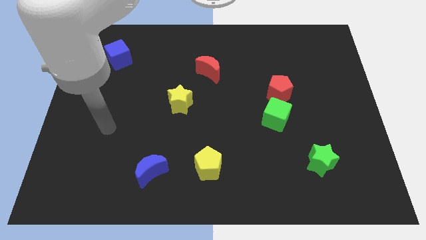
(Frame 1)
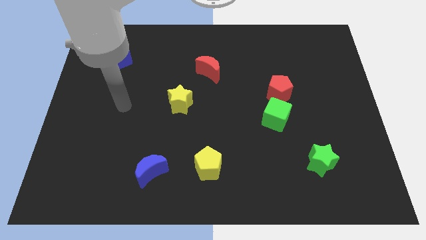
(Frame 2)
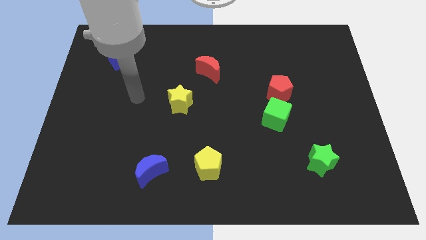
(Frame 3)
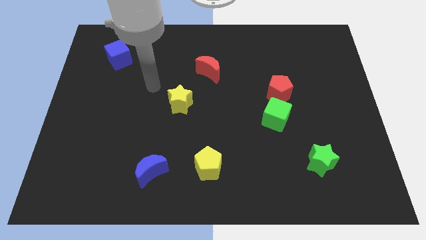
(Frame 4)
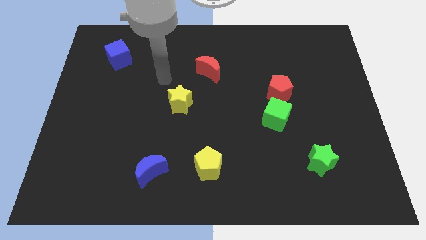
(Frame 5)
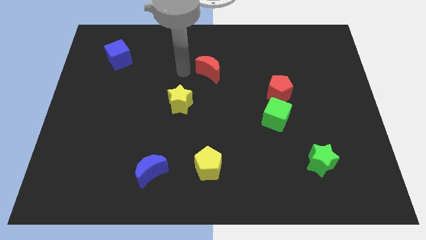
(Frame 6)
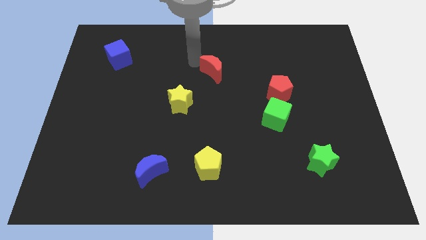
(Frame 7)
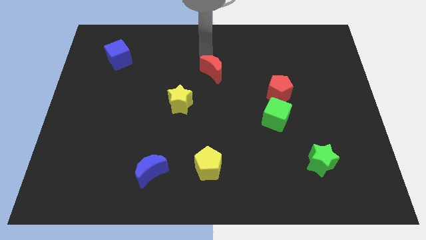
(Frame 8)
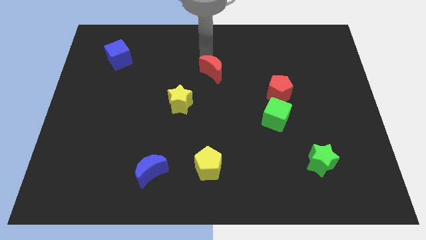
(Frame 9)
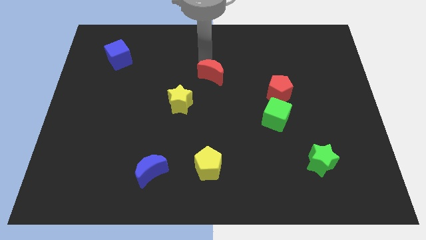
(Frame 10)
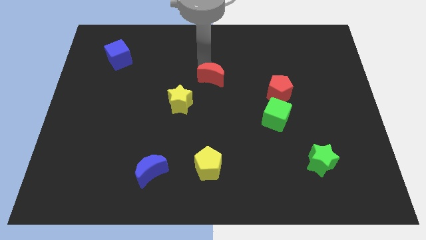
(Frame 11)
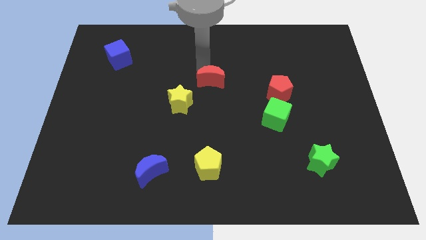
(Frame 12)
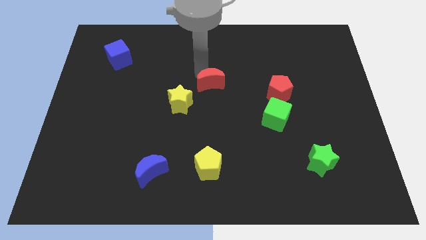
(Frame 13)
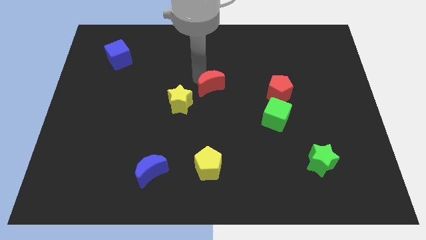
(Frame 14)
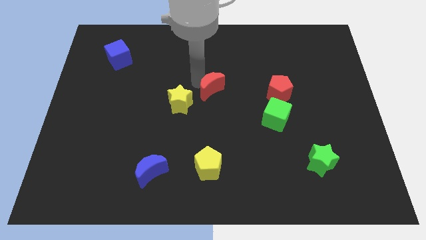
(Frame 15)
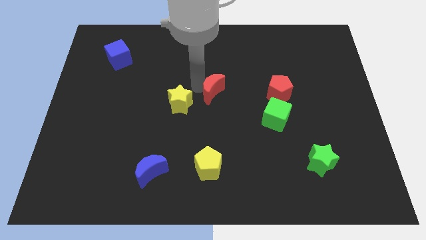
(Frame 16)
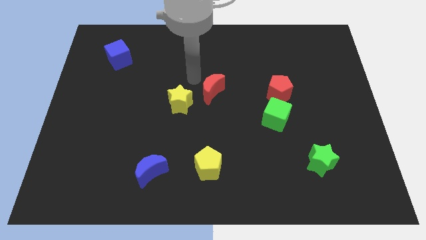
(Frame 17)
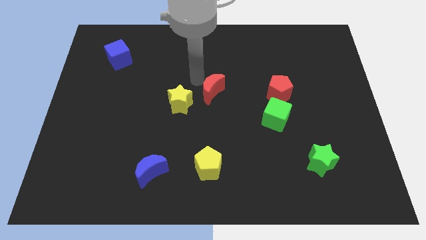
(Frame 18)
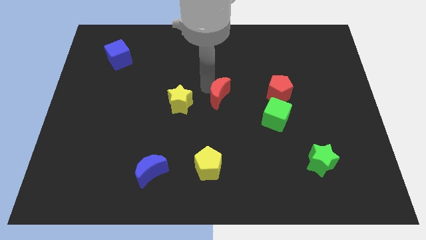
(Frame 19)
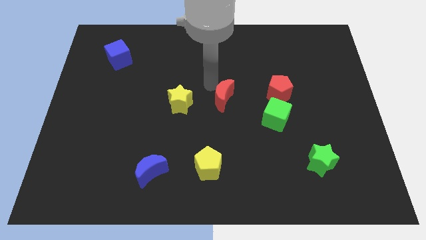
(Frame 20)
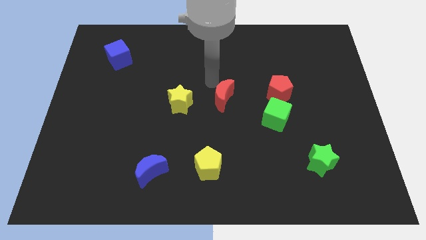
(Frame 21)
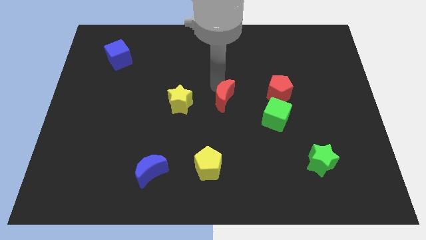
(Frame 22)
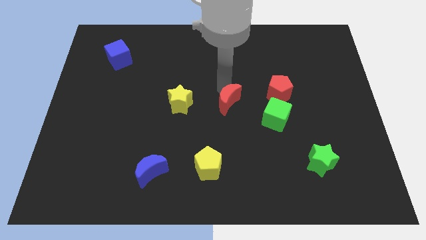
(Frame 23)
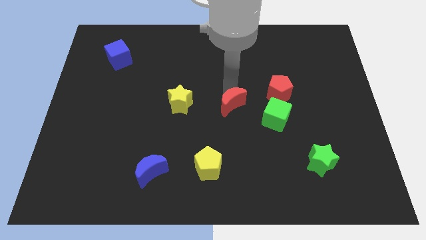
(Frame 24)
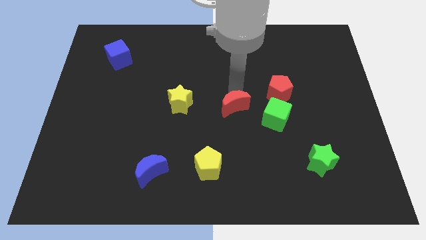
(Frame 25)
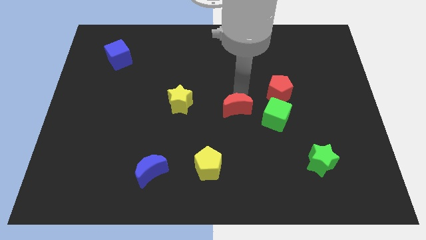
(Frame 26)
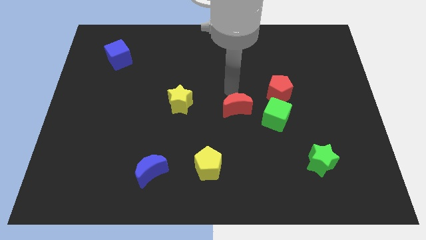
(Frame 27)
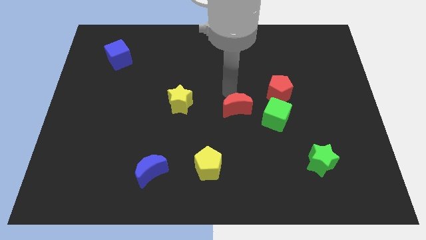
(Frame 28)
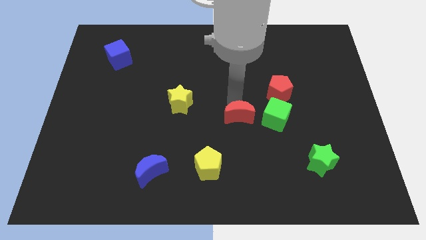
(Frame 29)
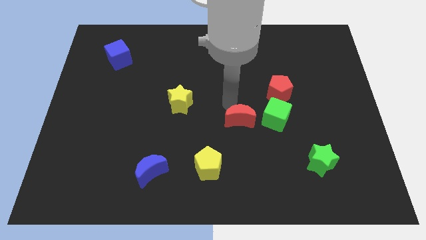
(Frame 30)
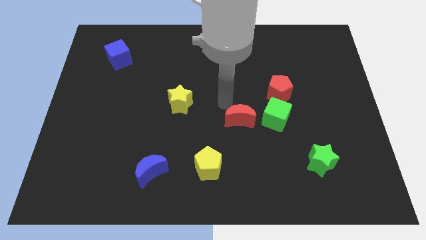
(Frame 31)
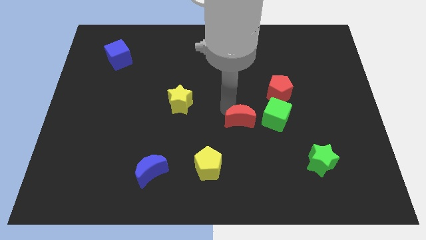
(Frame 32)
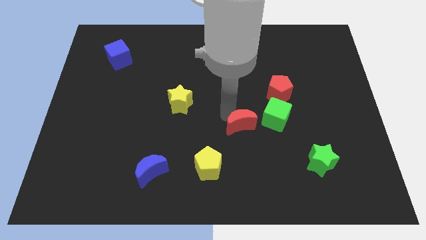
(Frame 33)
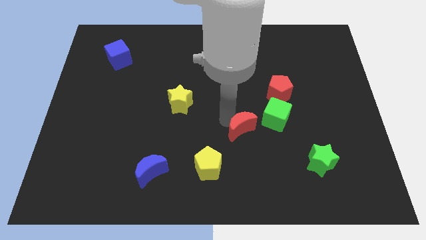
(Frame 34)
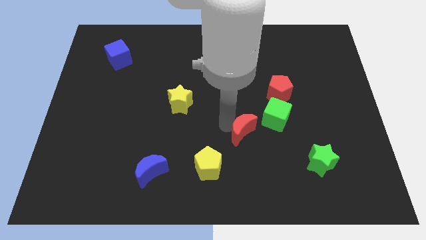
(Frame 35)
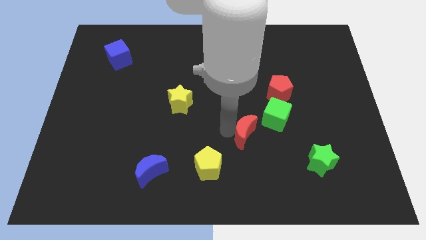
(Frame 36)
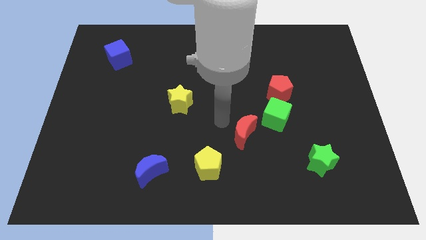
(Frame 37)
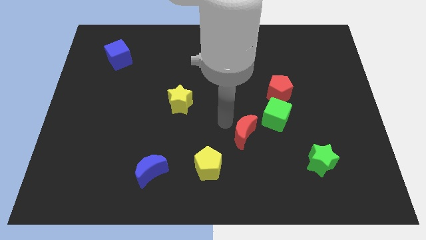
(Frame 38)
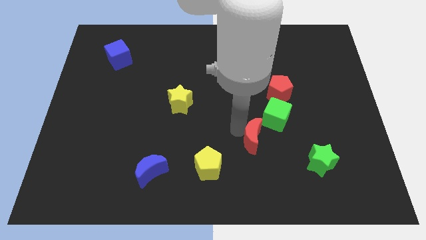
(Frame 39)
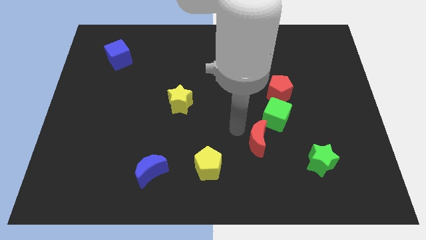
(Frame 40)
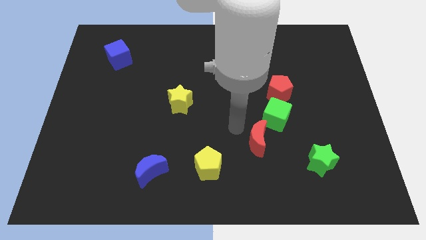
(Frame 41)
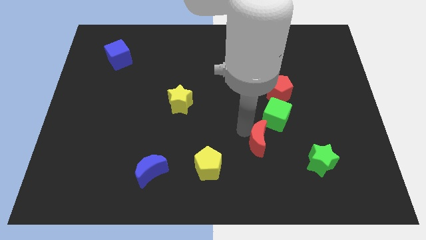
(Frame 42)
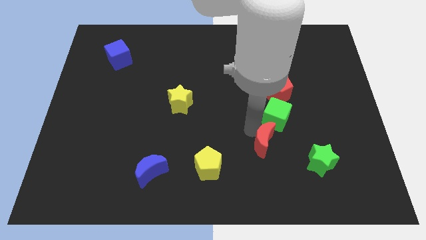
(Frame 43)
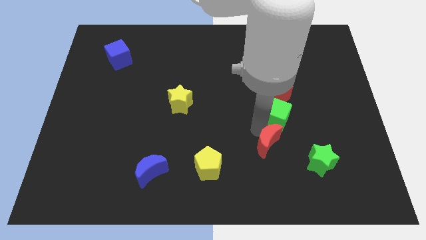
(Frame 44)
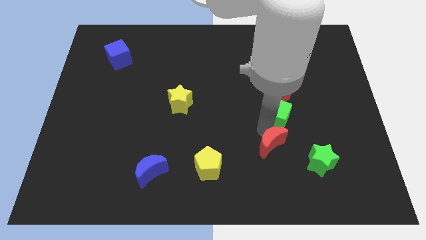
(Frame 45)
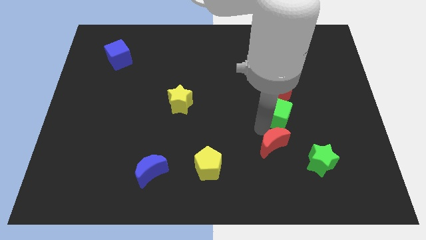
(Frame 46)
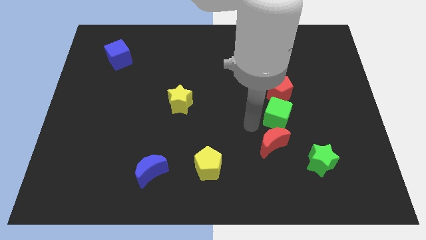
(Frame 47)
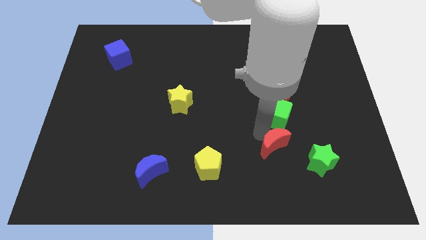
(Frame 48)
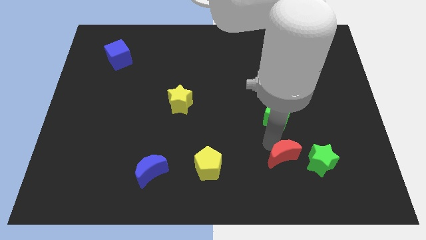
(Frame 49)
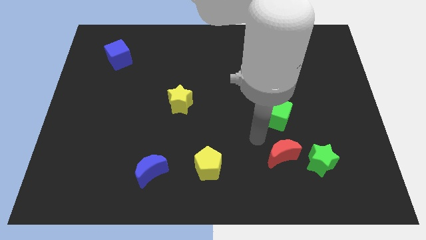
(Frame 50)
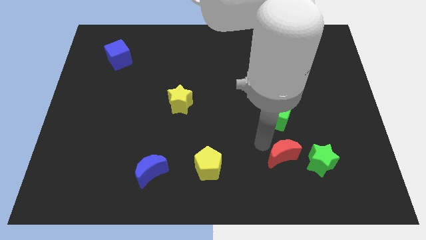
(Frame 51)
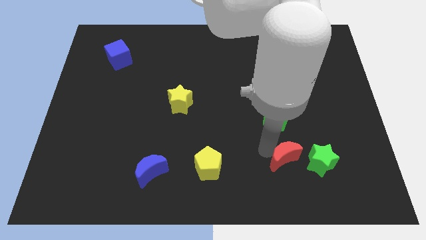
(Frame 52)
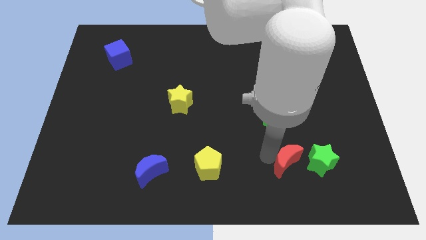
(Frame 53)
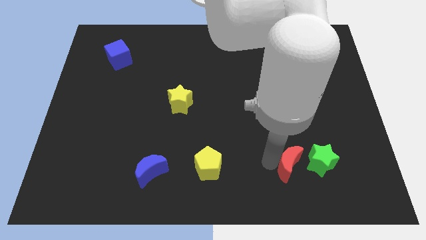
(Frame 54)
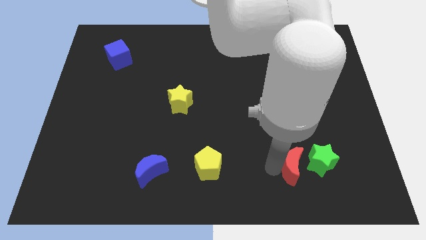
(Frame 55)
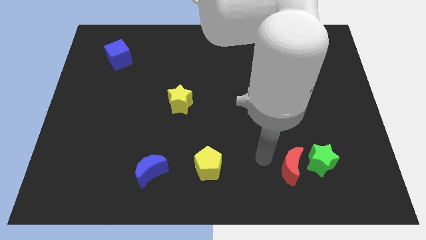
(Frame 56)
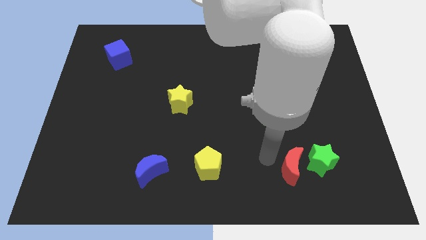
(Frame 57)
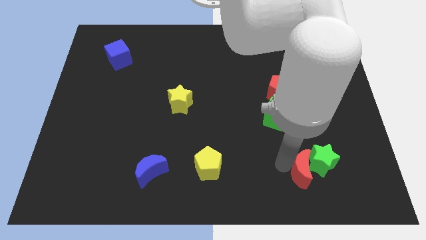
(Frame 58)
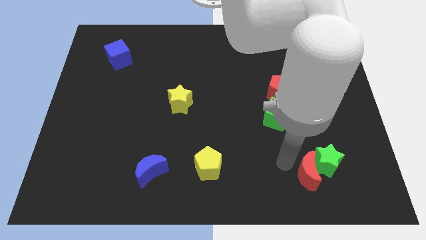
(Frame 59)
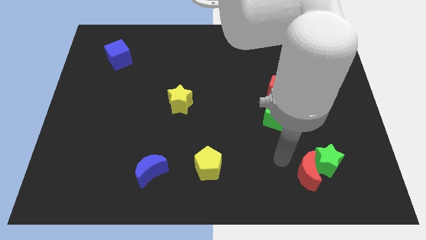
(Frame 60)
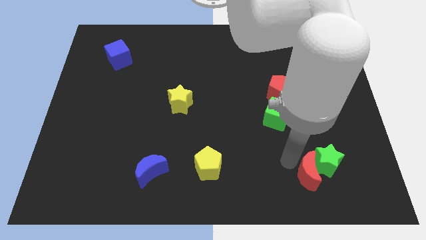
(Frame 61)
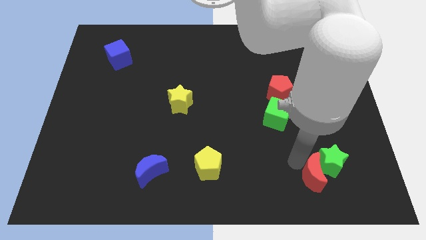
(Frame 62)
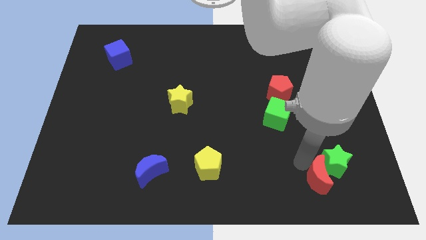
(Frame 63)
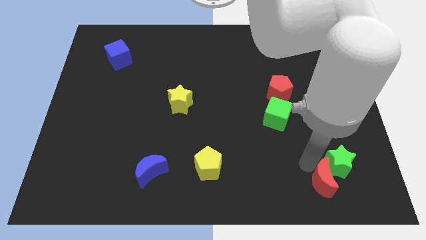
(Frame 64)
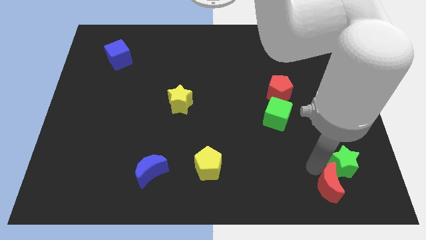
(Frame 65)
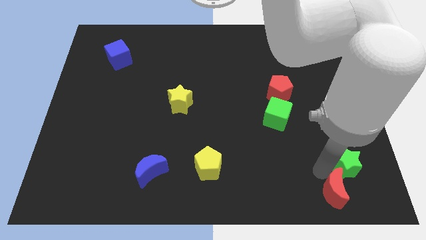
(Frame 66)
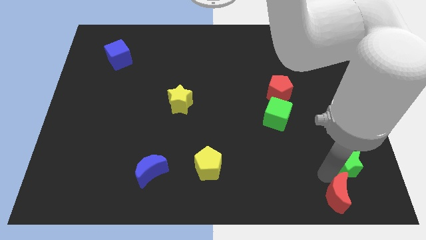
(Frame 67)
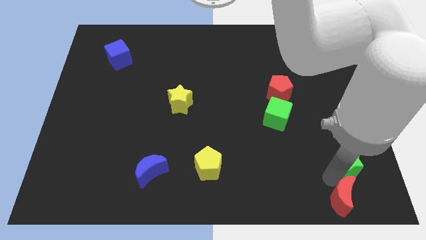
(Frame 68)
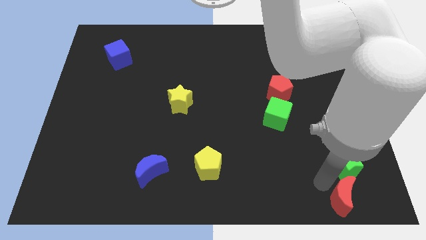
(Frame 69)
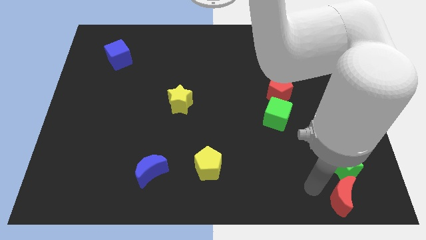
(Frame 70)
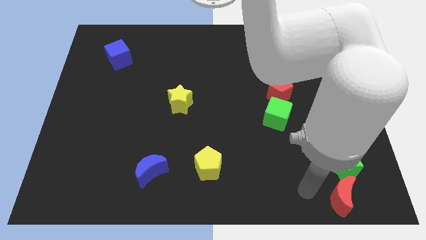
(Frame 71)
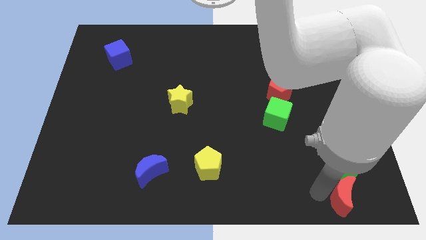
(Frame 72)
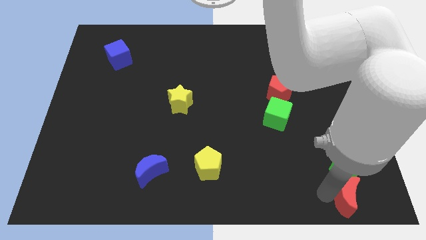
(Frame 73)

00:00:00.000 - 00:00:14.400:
put the red moon to the bottom right of the board
